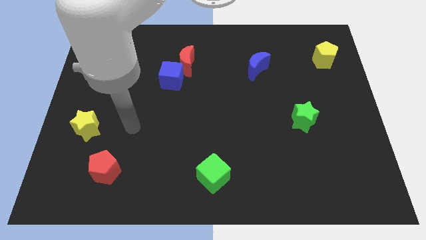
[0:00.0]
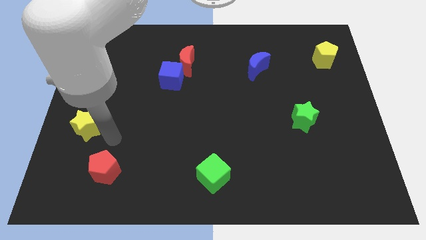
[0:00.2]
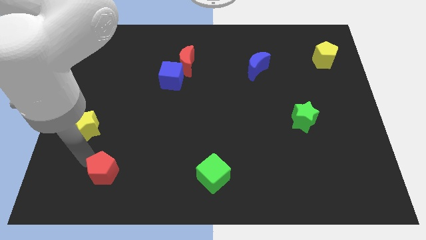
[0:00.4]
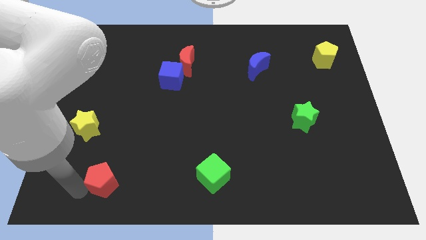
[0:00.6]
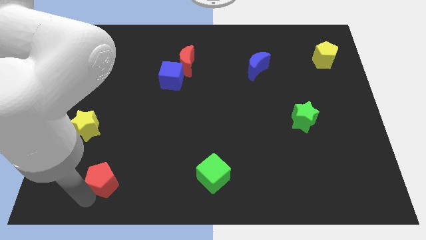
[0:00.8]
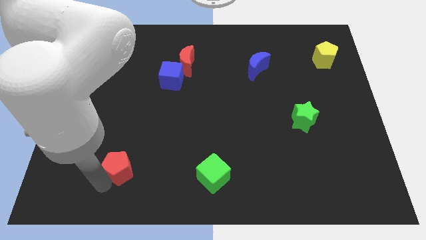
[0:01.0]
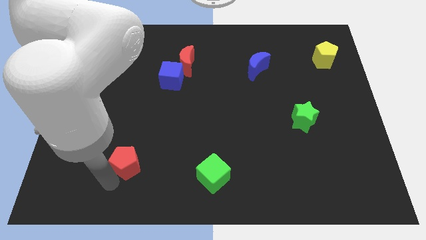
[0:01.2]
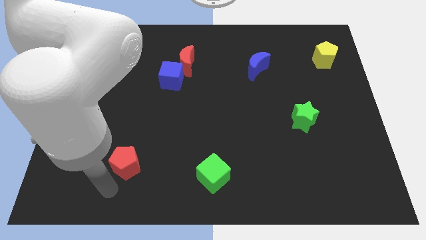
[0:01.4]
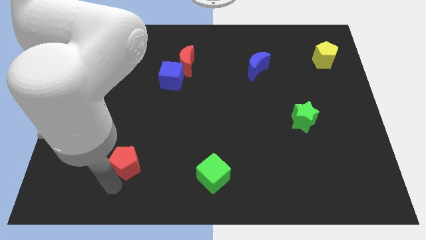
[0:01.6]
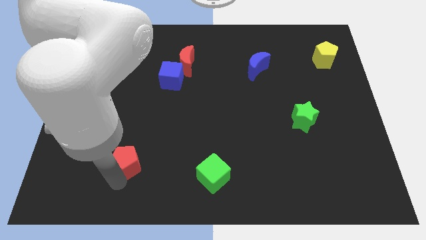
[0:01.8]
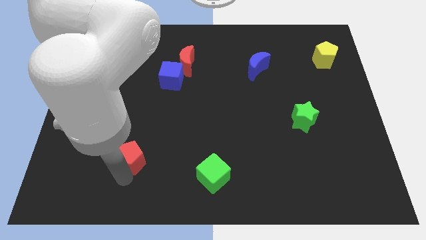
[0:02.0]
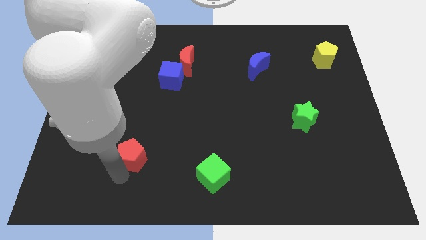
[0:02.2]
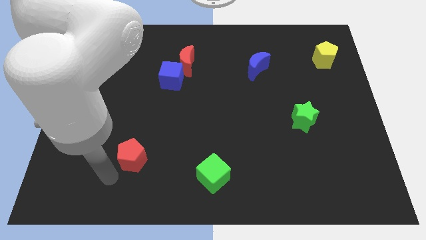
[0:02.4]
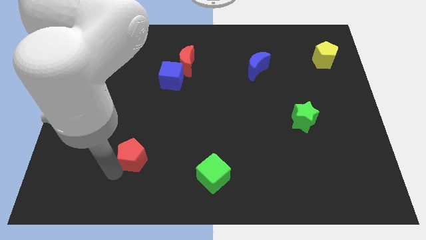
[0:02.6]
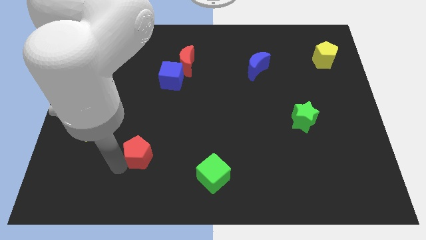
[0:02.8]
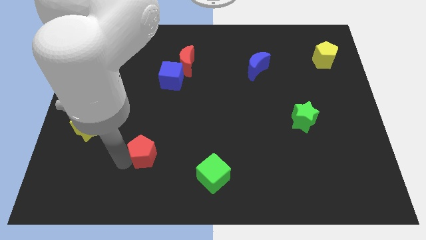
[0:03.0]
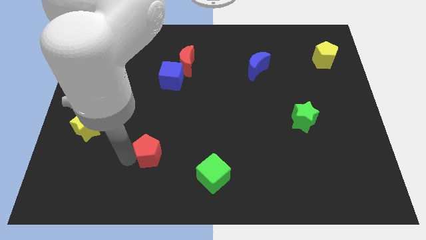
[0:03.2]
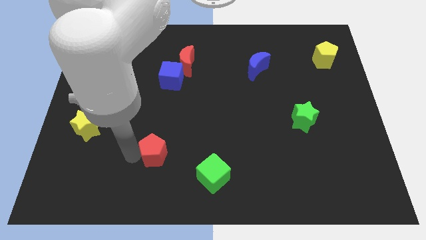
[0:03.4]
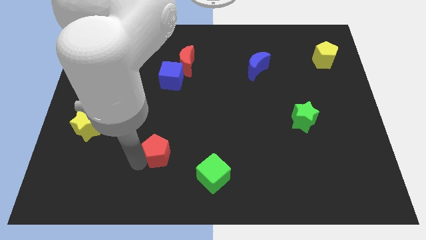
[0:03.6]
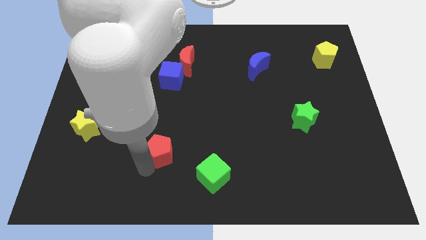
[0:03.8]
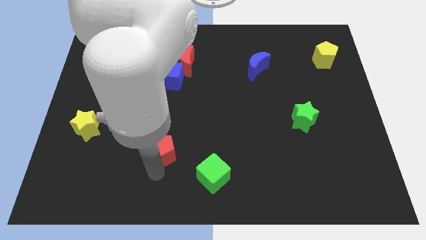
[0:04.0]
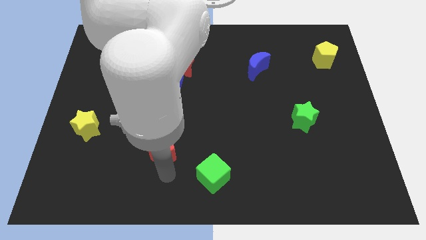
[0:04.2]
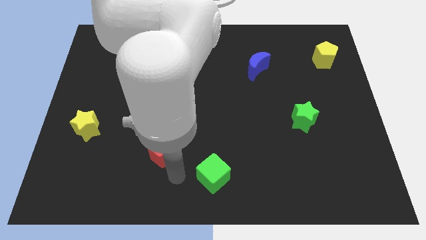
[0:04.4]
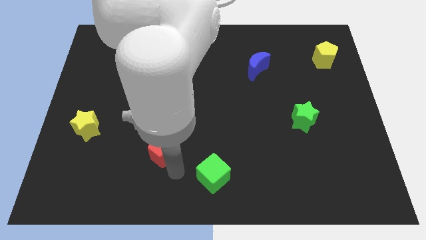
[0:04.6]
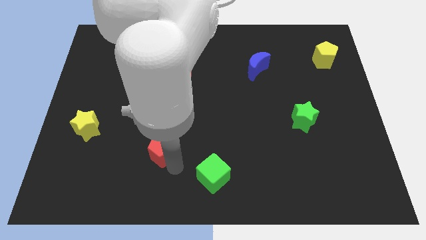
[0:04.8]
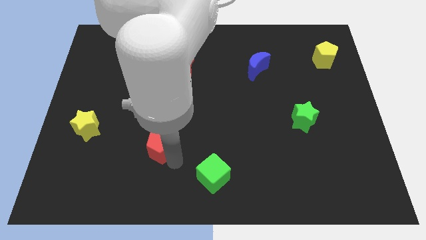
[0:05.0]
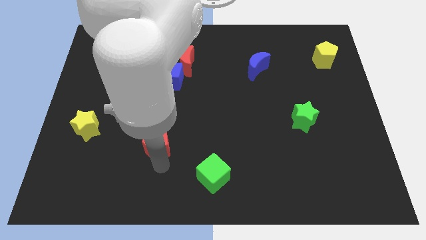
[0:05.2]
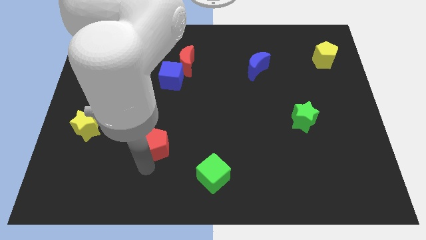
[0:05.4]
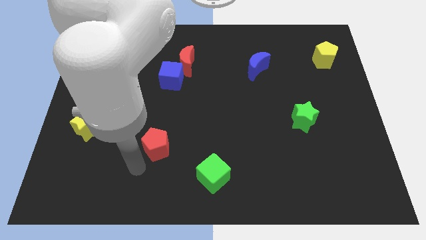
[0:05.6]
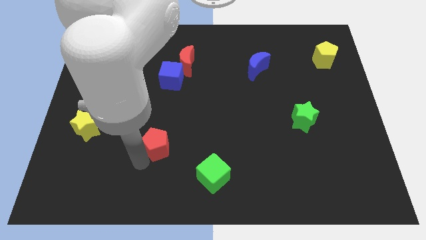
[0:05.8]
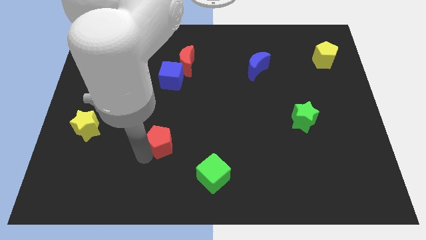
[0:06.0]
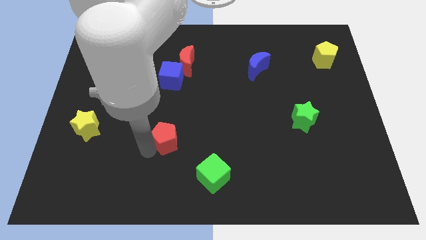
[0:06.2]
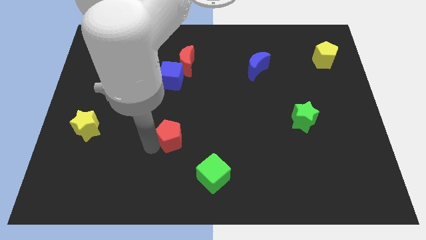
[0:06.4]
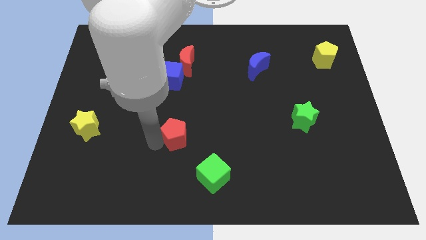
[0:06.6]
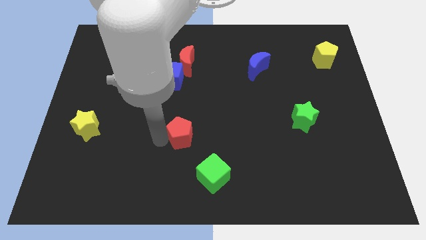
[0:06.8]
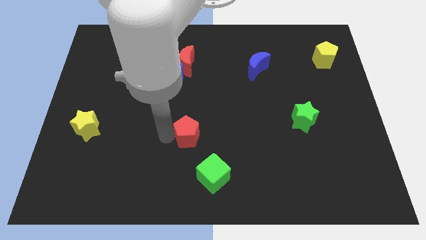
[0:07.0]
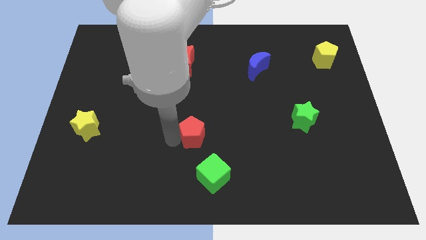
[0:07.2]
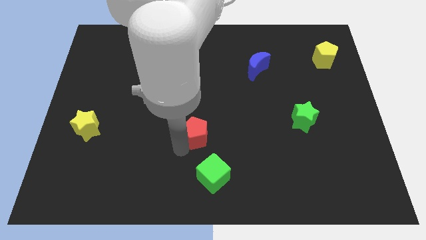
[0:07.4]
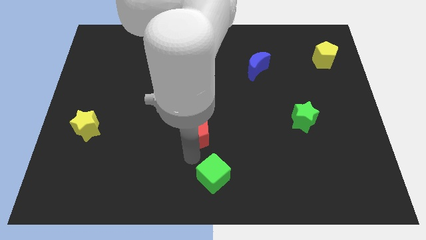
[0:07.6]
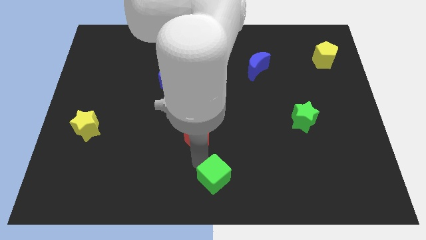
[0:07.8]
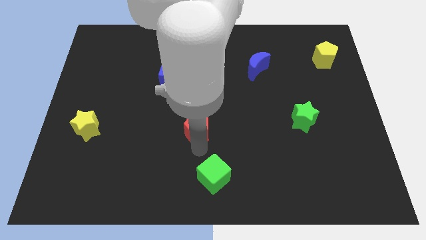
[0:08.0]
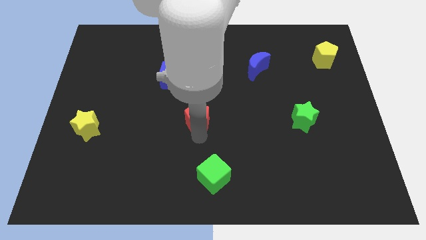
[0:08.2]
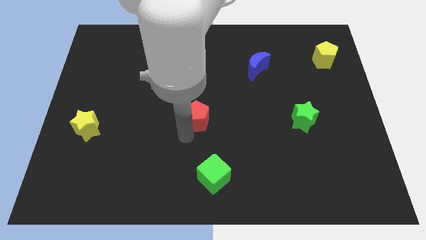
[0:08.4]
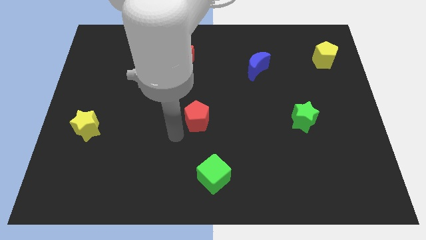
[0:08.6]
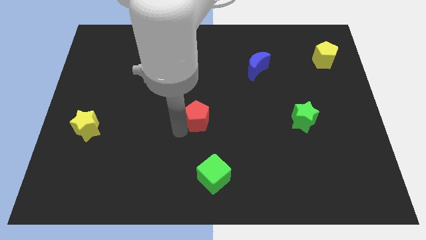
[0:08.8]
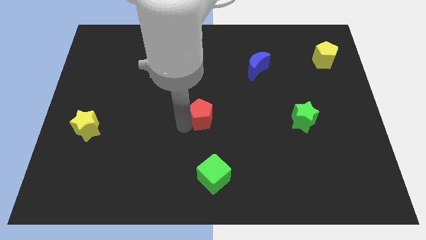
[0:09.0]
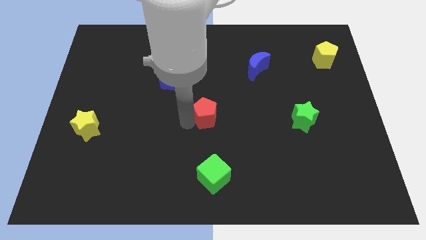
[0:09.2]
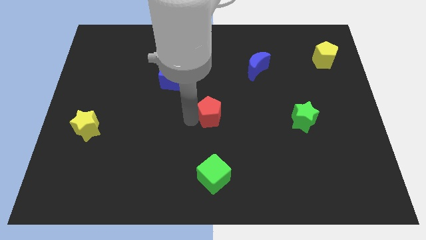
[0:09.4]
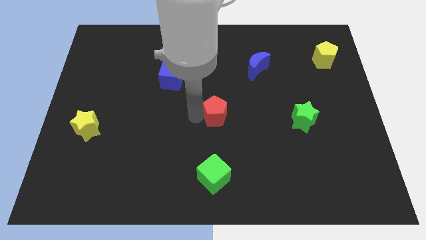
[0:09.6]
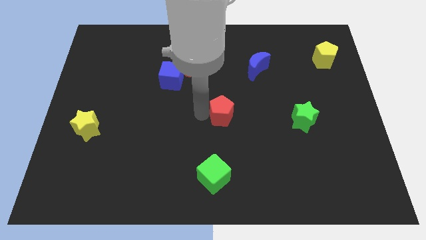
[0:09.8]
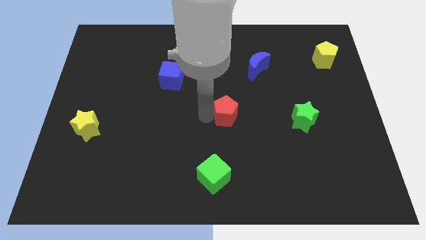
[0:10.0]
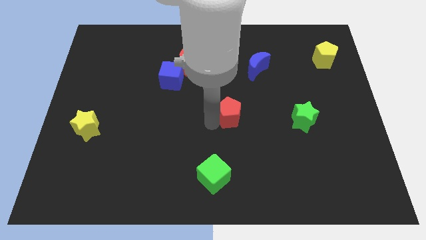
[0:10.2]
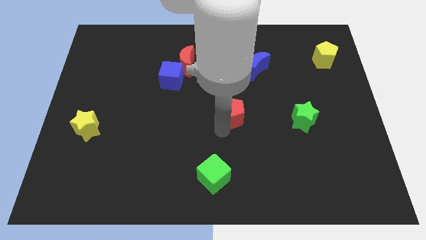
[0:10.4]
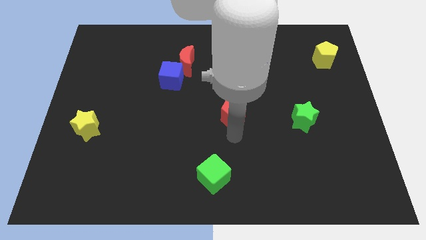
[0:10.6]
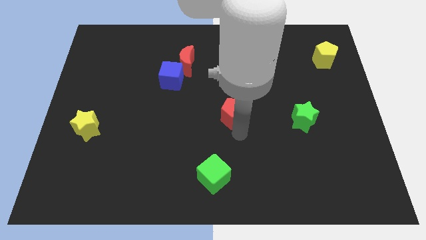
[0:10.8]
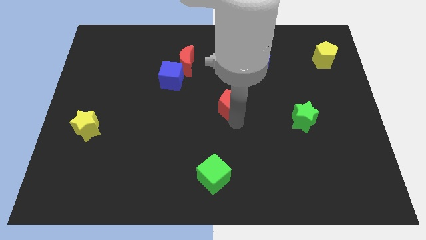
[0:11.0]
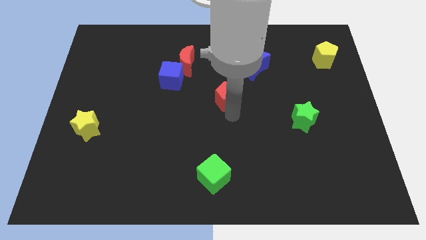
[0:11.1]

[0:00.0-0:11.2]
slide the red pentagon to the bottom left side of the blue moon

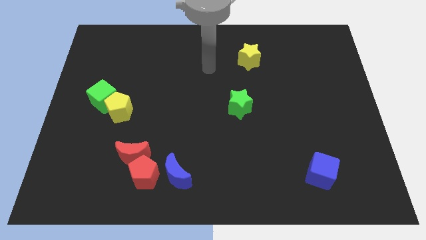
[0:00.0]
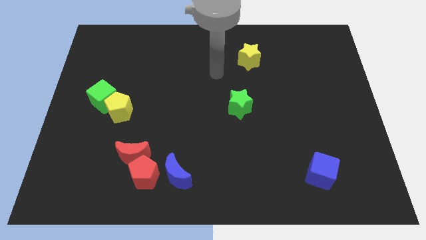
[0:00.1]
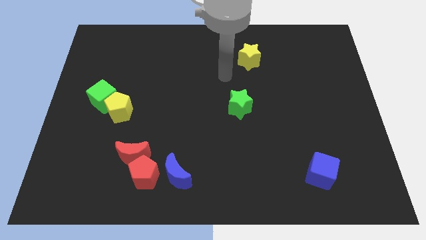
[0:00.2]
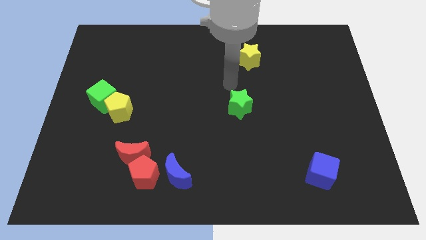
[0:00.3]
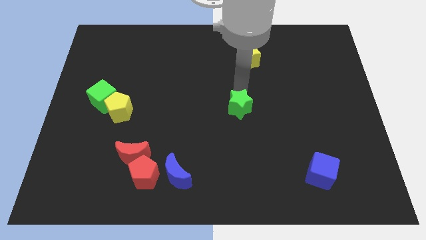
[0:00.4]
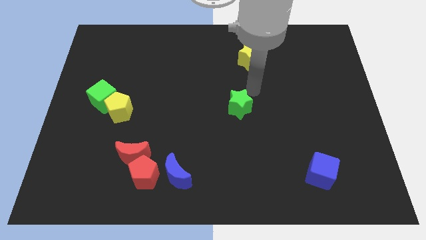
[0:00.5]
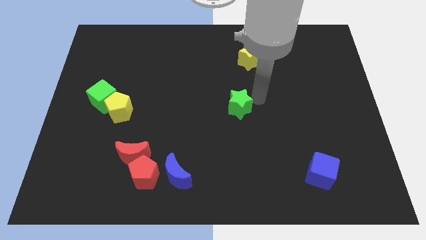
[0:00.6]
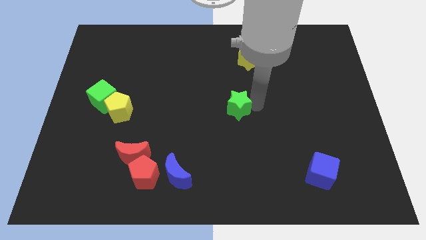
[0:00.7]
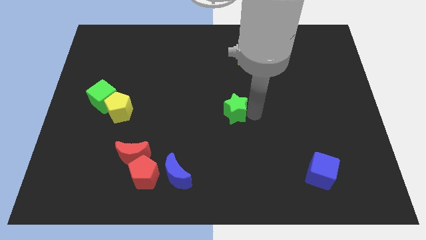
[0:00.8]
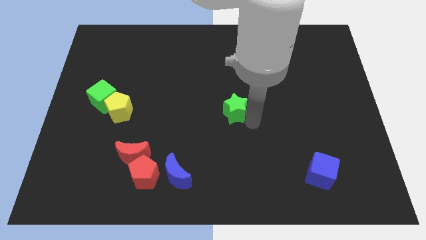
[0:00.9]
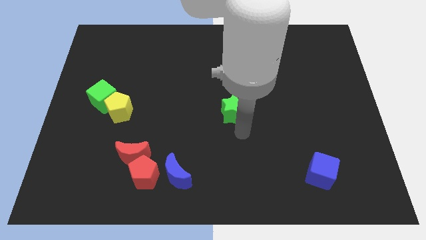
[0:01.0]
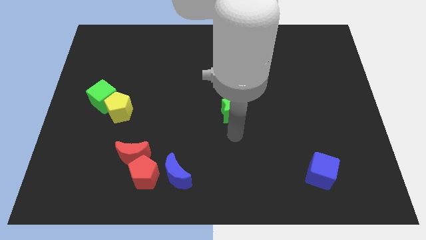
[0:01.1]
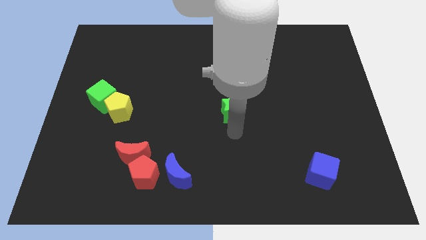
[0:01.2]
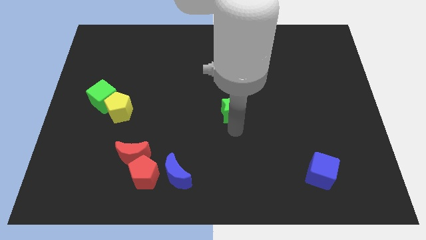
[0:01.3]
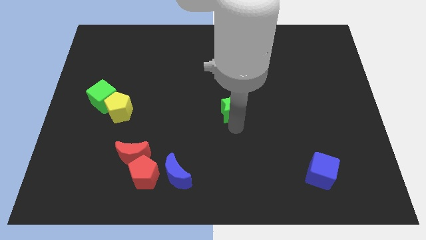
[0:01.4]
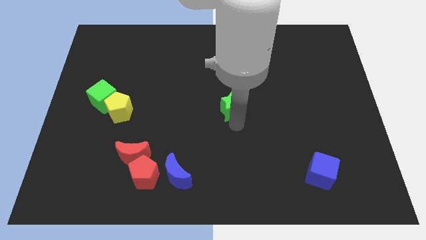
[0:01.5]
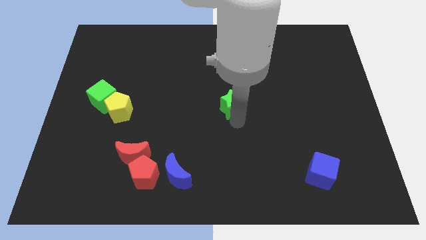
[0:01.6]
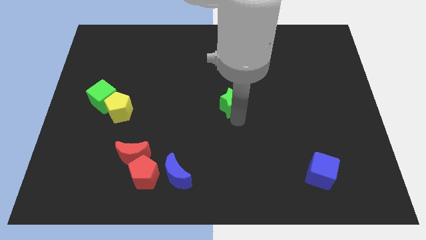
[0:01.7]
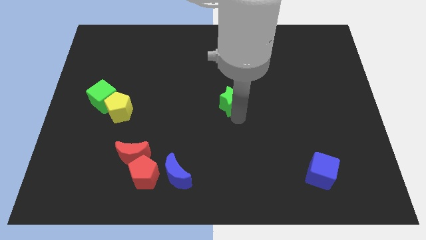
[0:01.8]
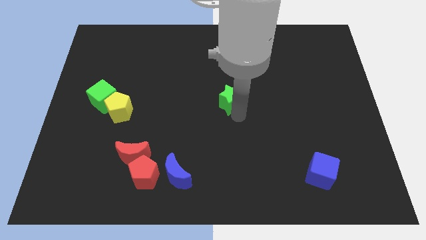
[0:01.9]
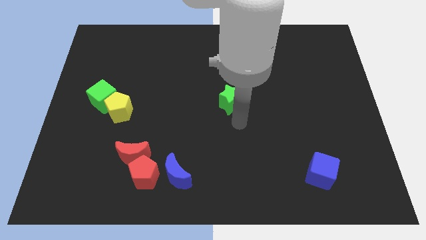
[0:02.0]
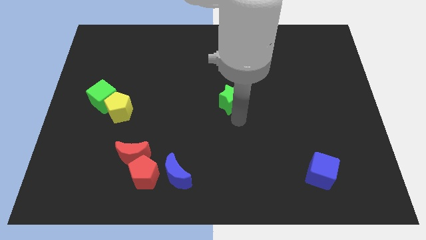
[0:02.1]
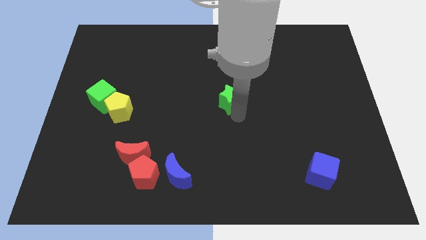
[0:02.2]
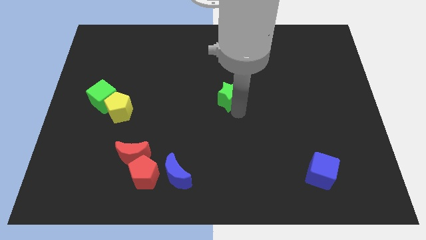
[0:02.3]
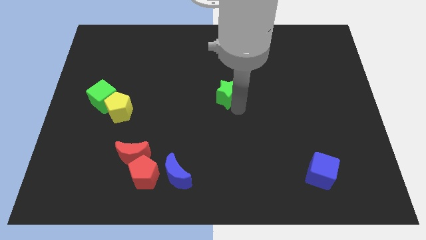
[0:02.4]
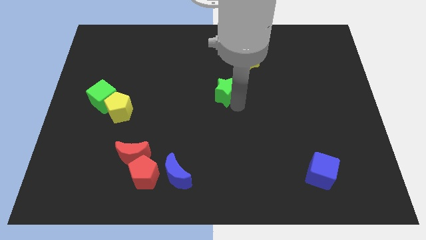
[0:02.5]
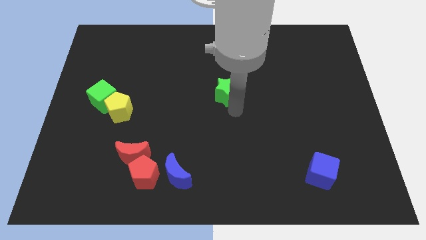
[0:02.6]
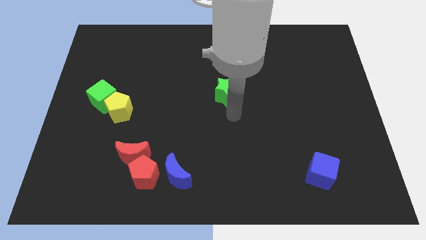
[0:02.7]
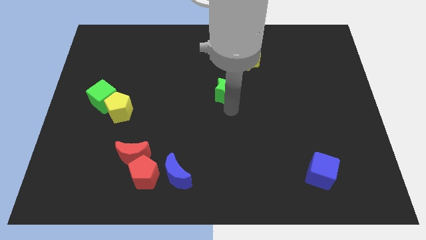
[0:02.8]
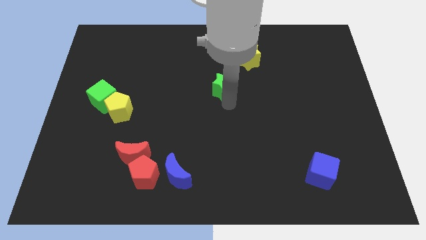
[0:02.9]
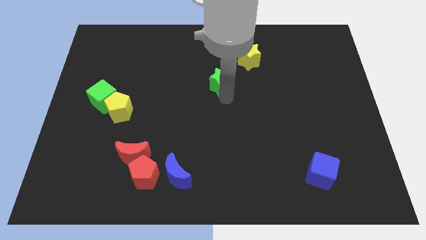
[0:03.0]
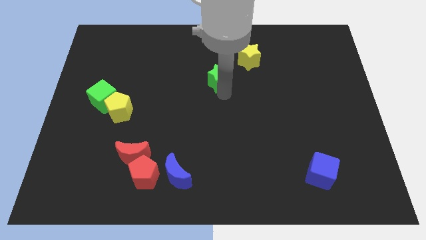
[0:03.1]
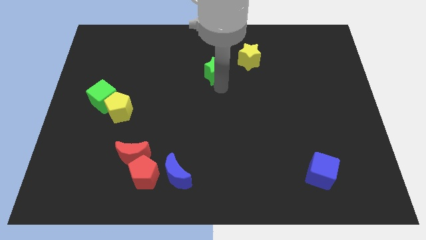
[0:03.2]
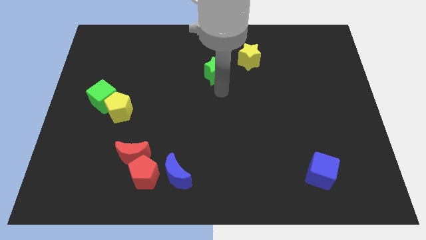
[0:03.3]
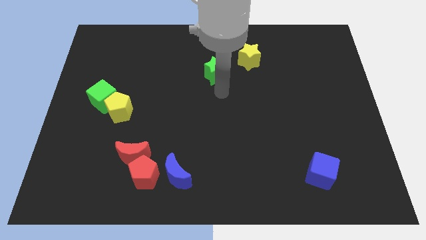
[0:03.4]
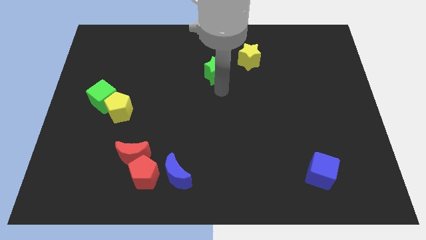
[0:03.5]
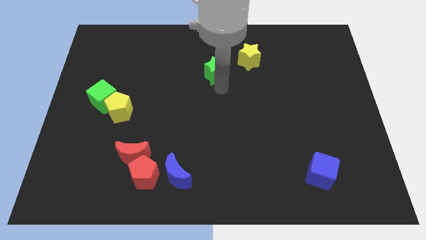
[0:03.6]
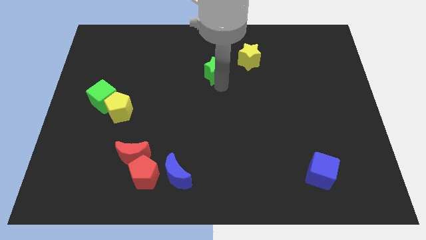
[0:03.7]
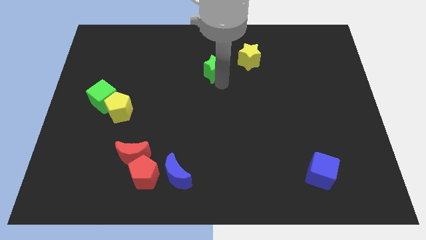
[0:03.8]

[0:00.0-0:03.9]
push the green star left of the yellow star
